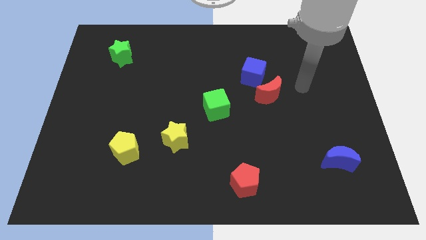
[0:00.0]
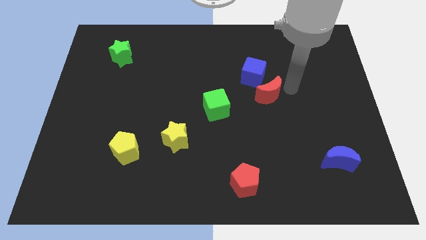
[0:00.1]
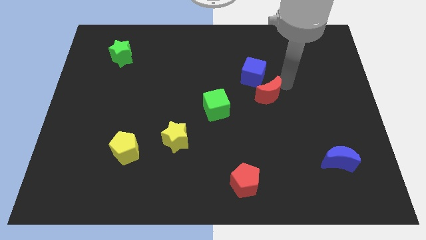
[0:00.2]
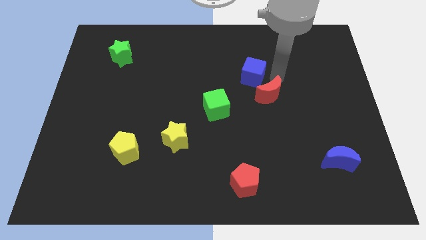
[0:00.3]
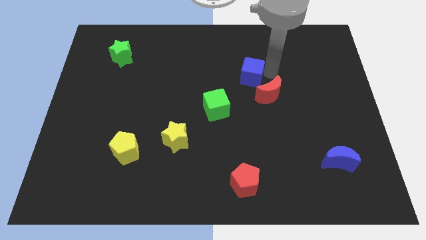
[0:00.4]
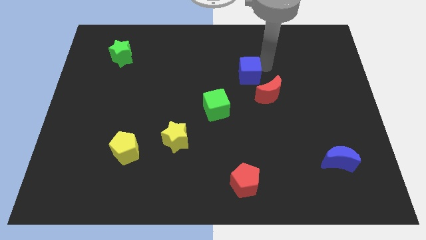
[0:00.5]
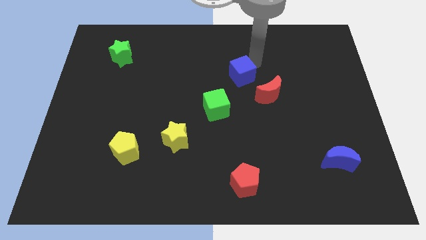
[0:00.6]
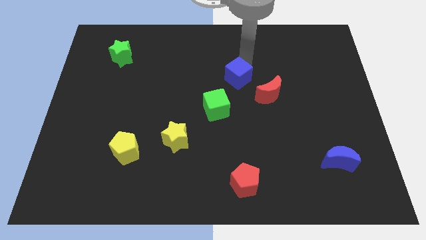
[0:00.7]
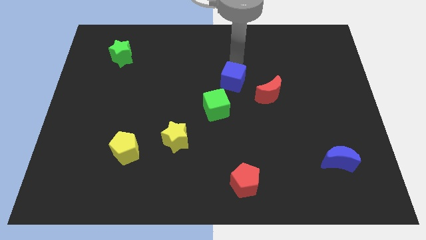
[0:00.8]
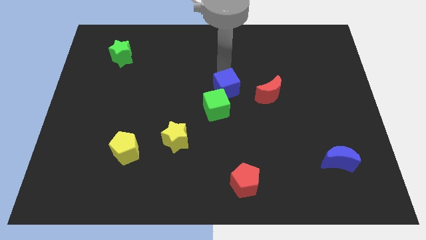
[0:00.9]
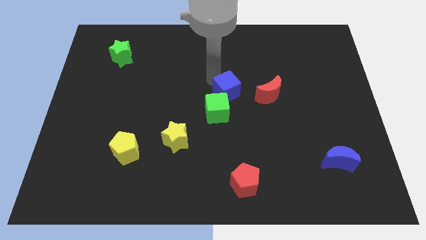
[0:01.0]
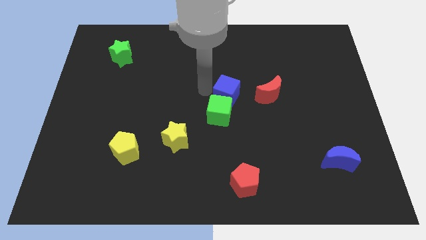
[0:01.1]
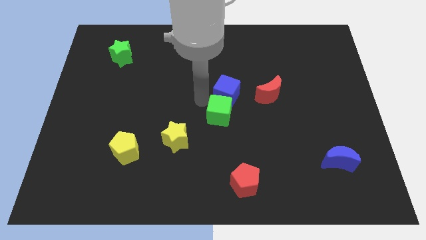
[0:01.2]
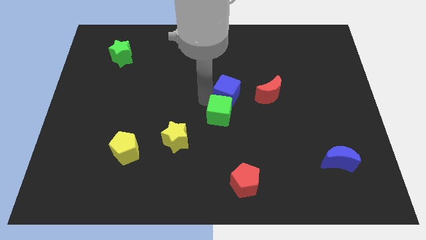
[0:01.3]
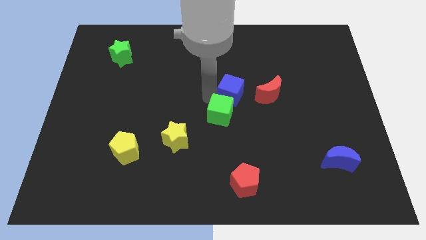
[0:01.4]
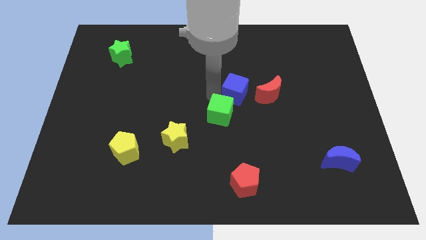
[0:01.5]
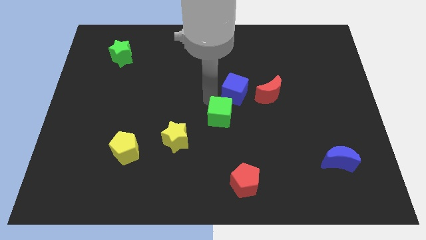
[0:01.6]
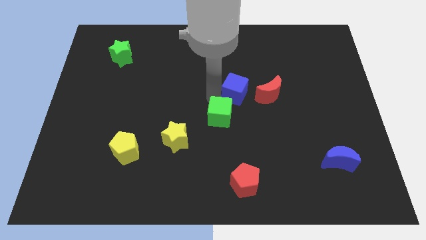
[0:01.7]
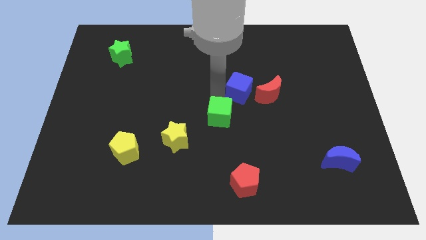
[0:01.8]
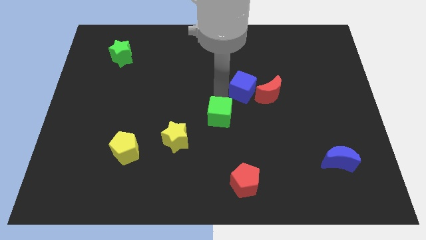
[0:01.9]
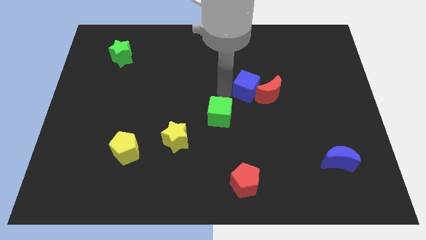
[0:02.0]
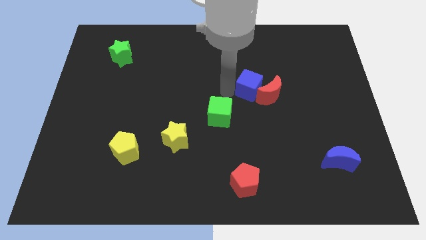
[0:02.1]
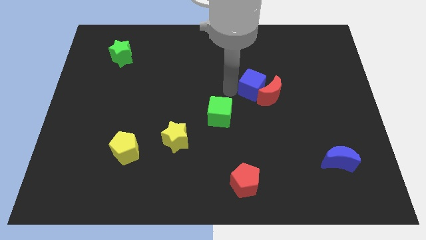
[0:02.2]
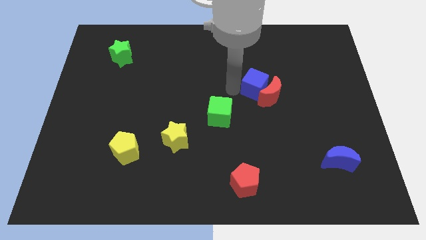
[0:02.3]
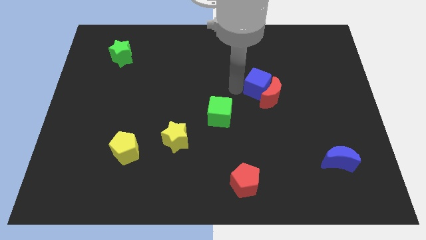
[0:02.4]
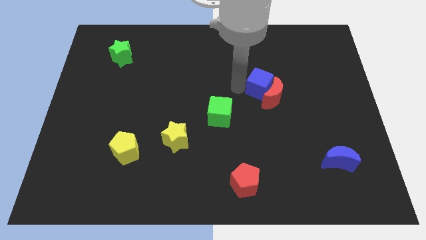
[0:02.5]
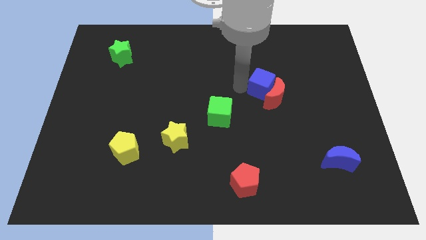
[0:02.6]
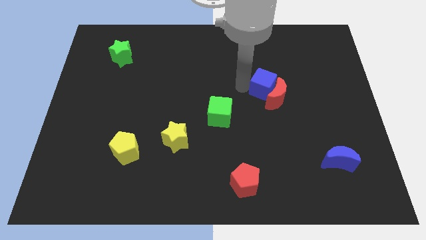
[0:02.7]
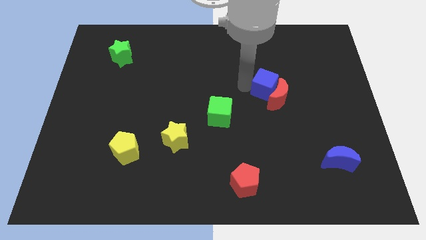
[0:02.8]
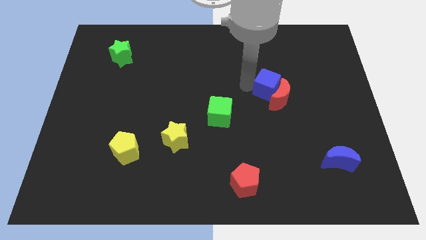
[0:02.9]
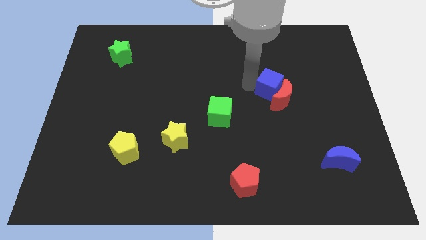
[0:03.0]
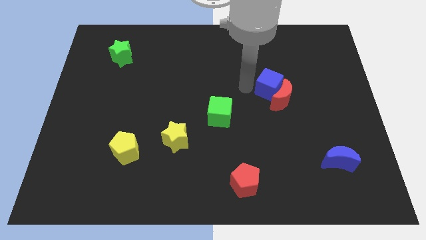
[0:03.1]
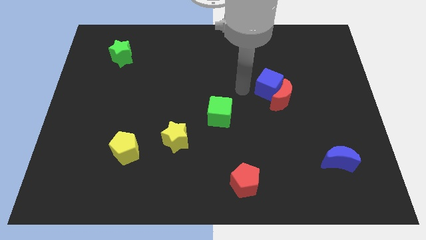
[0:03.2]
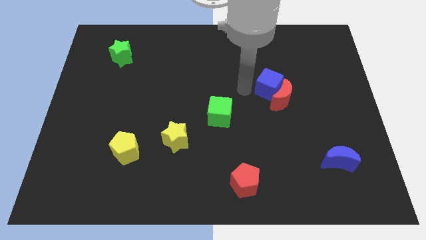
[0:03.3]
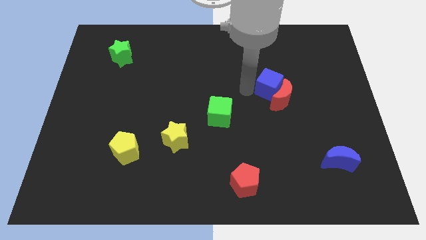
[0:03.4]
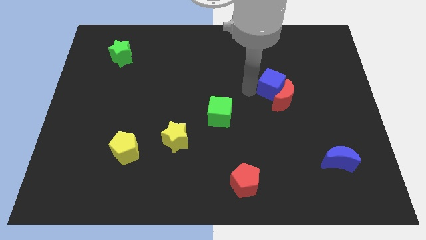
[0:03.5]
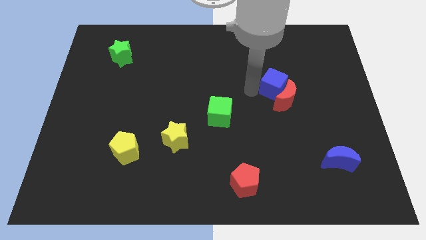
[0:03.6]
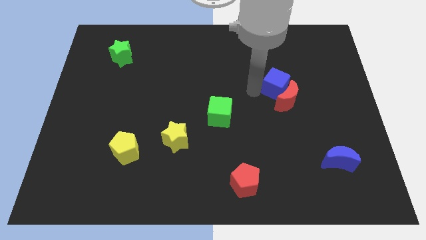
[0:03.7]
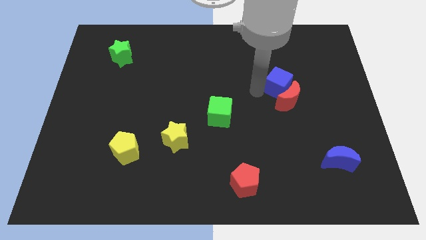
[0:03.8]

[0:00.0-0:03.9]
push the blue cube diagonally down and right a little bit

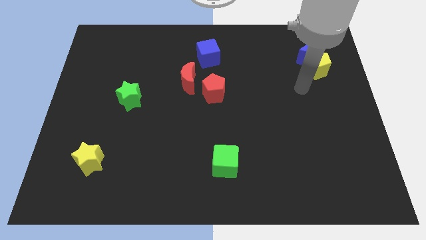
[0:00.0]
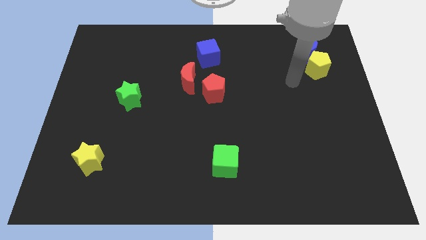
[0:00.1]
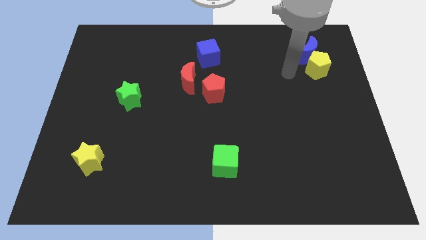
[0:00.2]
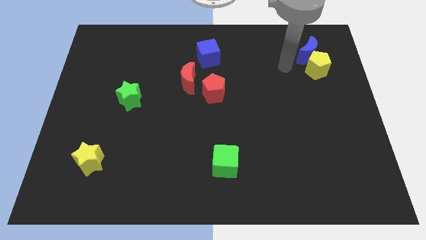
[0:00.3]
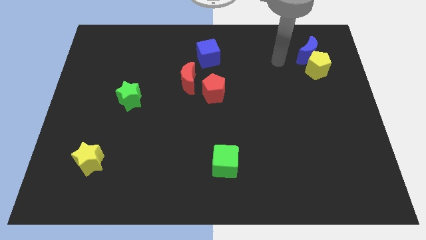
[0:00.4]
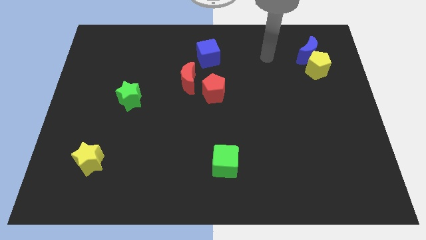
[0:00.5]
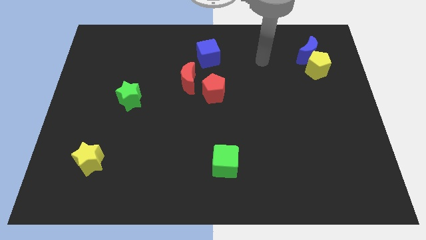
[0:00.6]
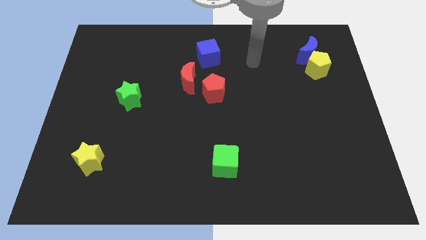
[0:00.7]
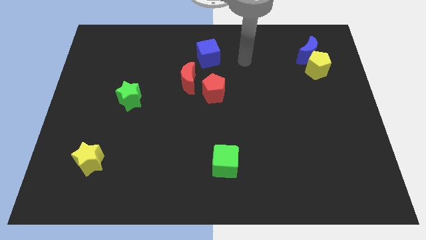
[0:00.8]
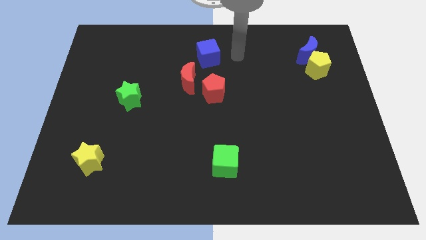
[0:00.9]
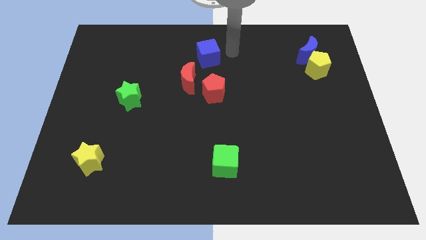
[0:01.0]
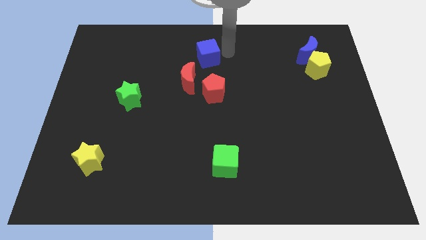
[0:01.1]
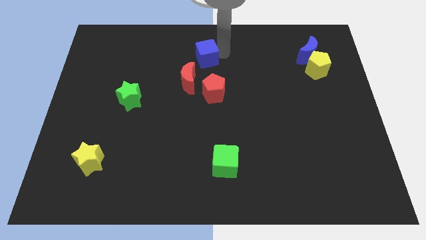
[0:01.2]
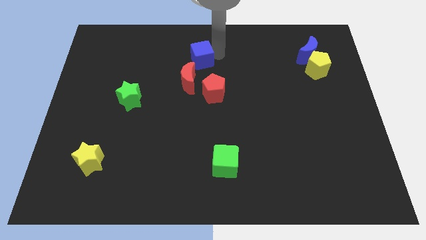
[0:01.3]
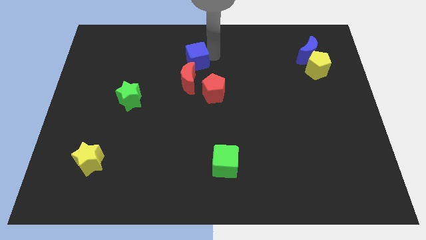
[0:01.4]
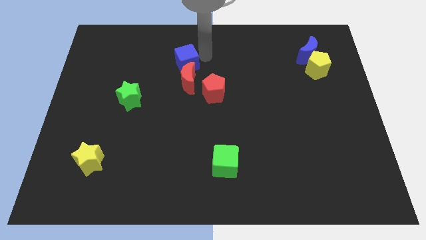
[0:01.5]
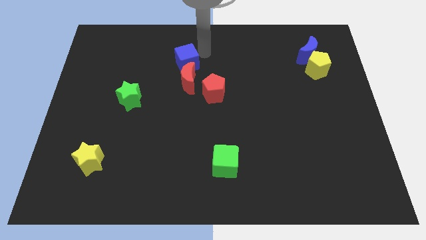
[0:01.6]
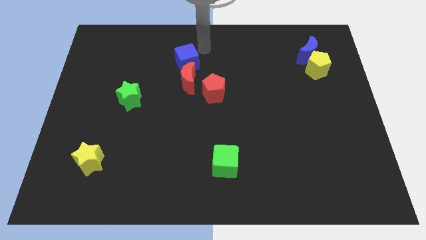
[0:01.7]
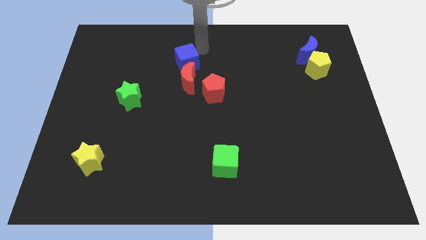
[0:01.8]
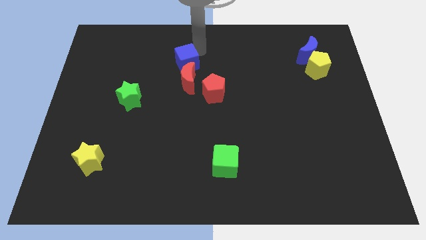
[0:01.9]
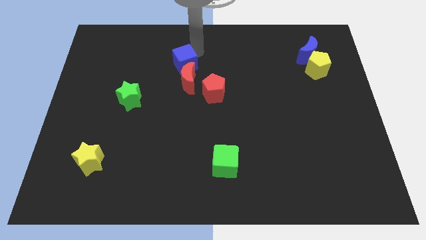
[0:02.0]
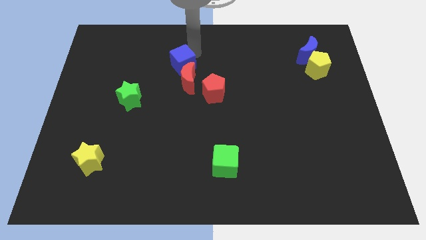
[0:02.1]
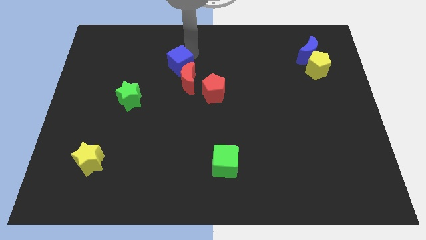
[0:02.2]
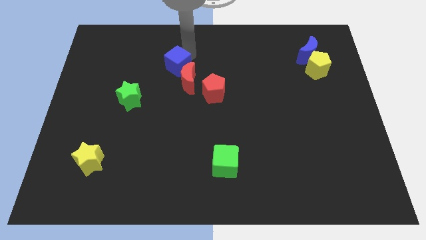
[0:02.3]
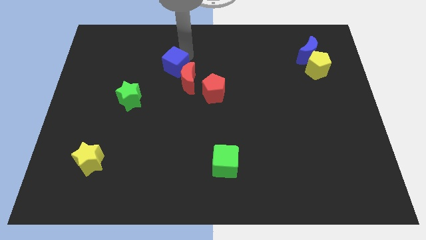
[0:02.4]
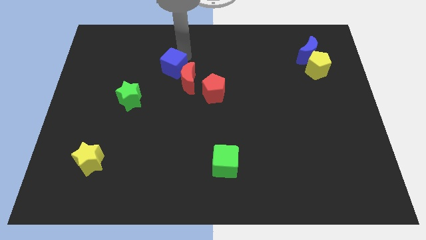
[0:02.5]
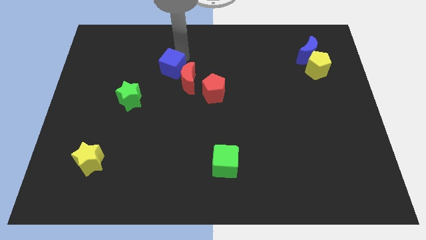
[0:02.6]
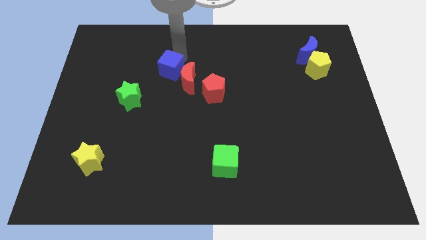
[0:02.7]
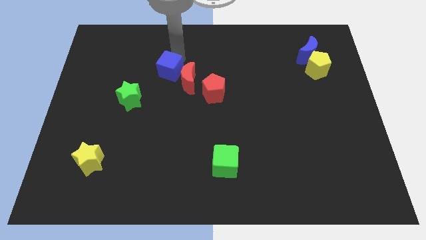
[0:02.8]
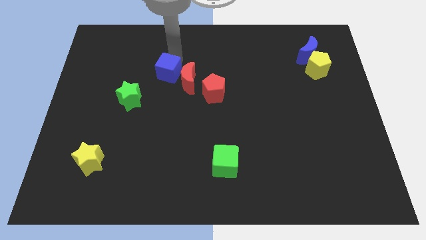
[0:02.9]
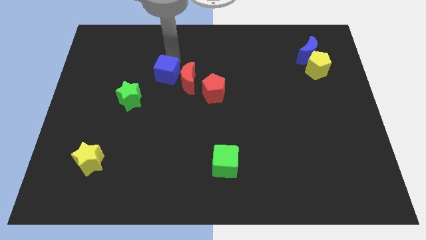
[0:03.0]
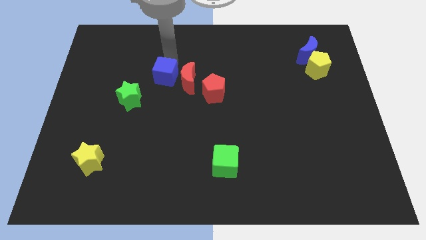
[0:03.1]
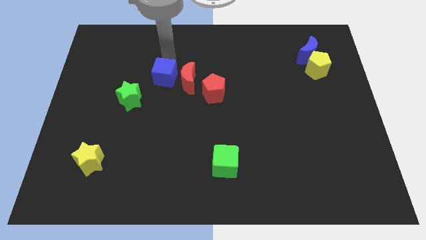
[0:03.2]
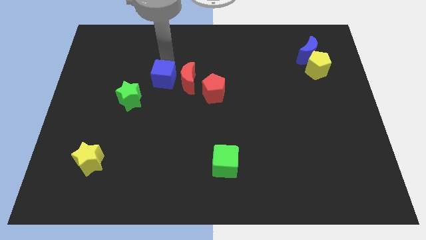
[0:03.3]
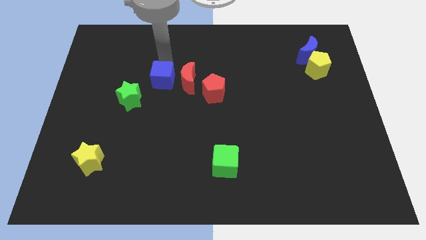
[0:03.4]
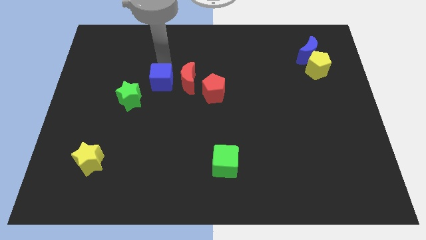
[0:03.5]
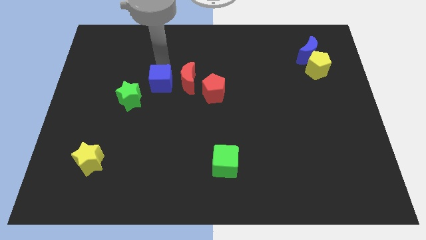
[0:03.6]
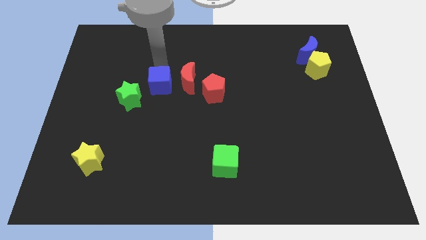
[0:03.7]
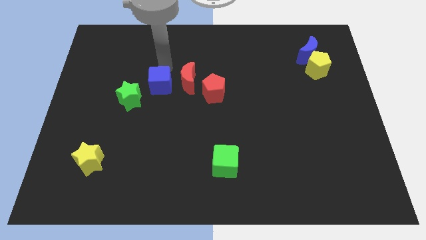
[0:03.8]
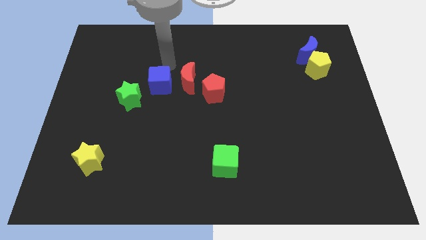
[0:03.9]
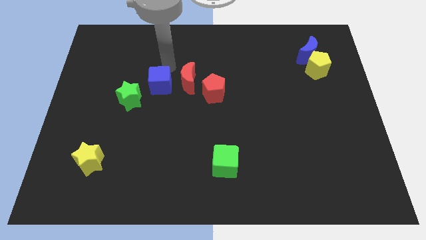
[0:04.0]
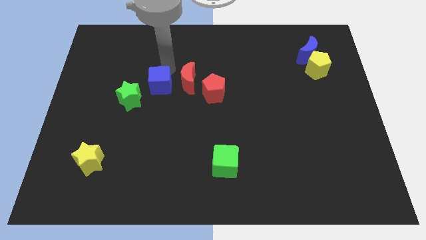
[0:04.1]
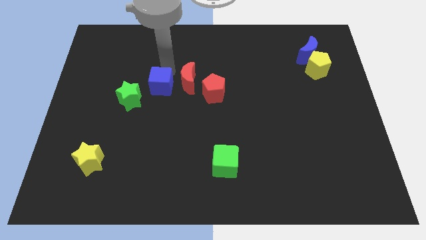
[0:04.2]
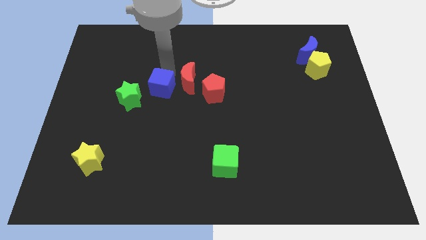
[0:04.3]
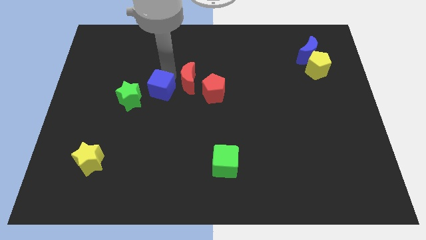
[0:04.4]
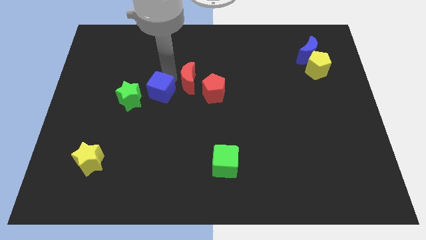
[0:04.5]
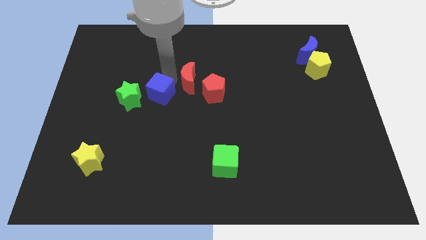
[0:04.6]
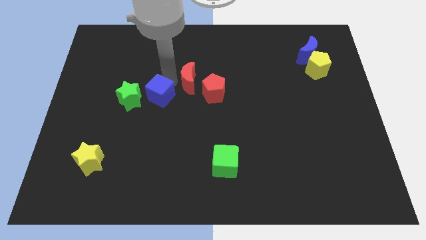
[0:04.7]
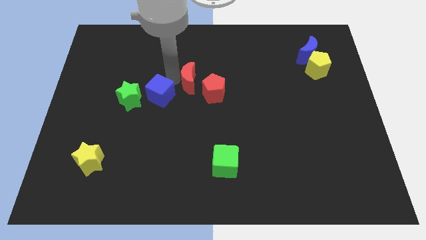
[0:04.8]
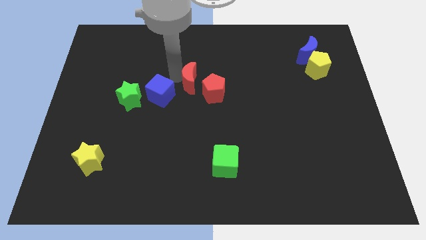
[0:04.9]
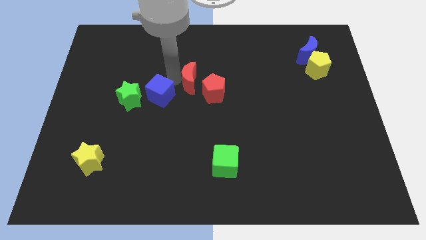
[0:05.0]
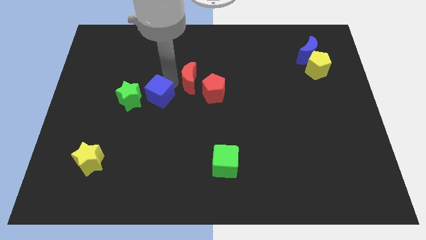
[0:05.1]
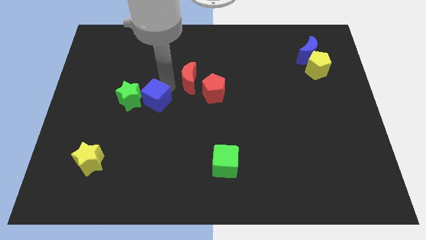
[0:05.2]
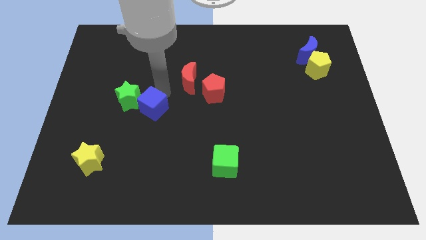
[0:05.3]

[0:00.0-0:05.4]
push the blue cube downwards and left
